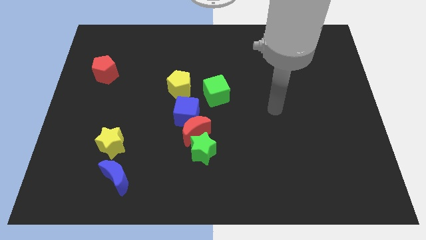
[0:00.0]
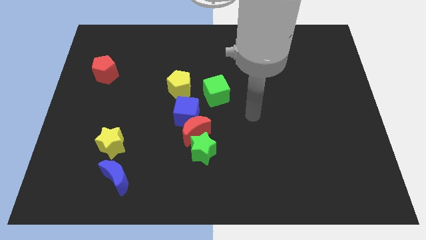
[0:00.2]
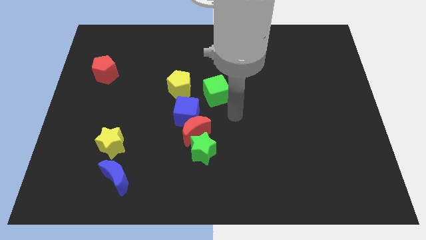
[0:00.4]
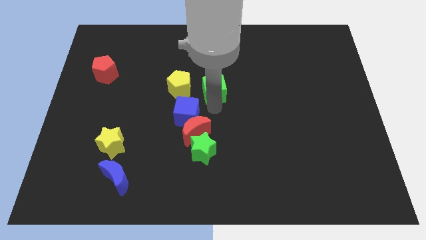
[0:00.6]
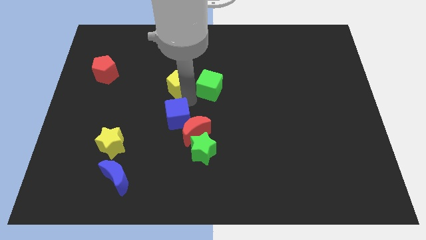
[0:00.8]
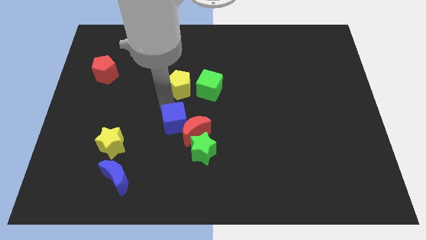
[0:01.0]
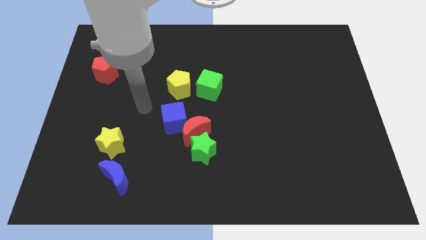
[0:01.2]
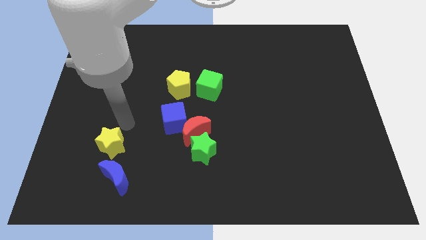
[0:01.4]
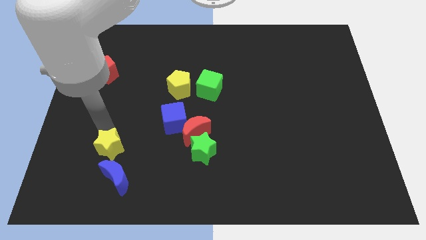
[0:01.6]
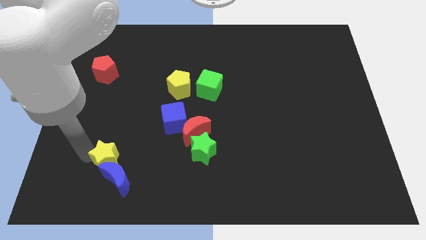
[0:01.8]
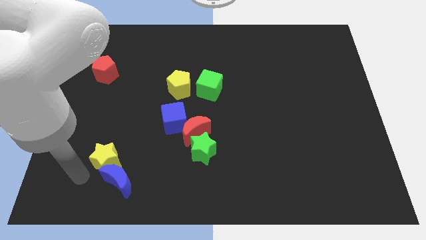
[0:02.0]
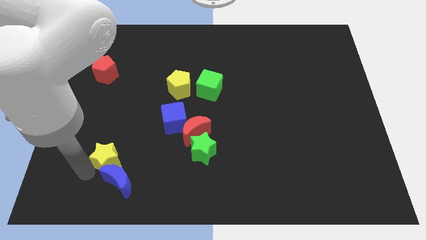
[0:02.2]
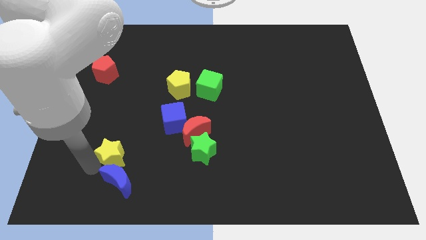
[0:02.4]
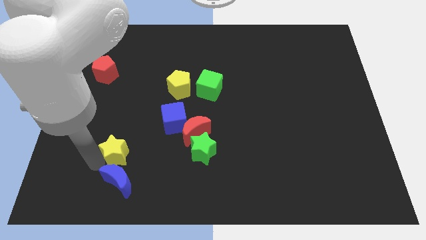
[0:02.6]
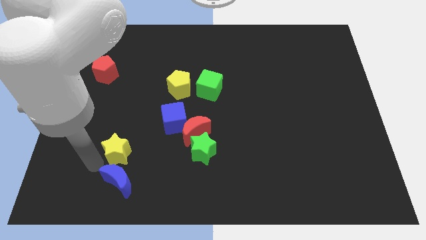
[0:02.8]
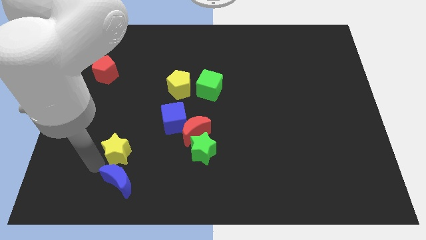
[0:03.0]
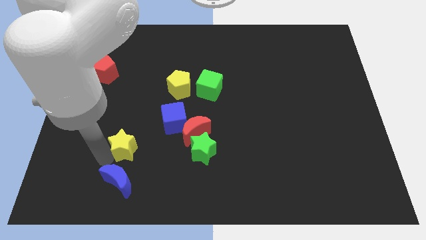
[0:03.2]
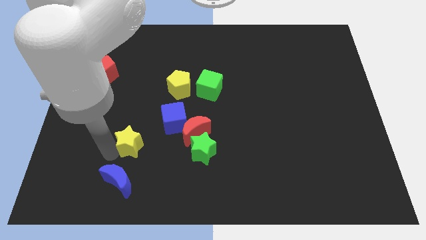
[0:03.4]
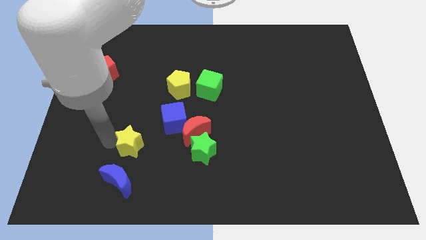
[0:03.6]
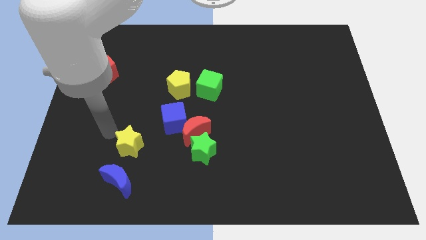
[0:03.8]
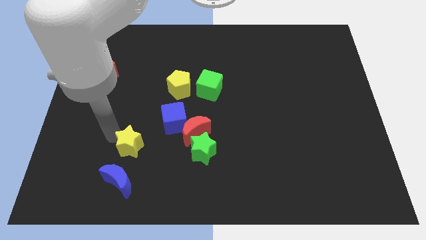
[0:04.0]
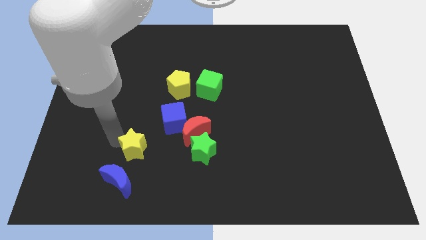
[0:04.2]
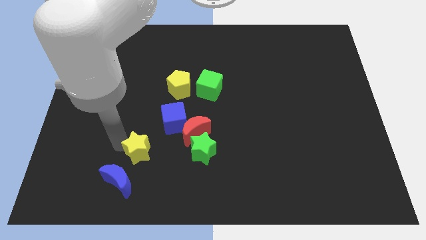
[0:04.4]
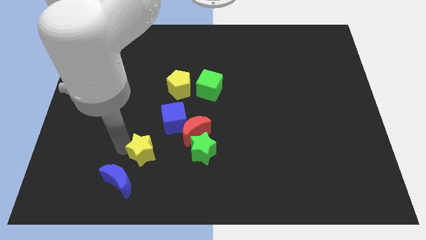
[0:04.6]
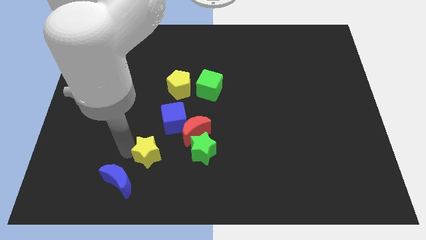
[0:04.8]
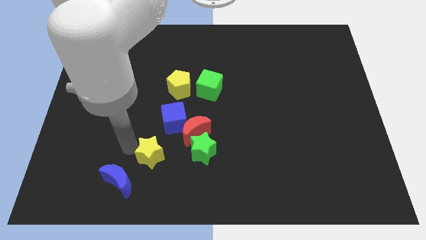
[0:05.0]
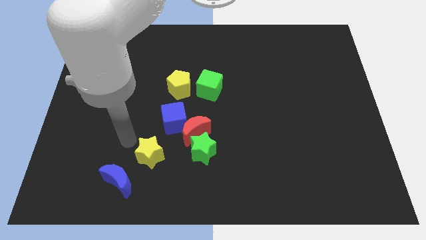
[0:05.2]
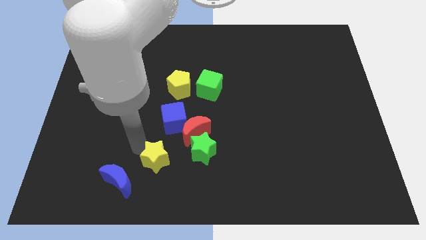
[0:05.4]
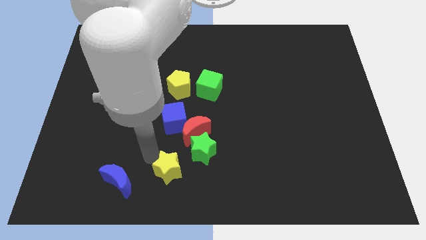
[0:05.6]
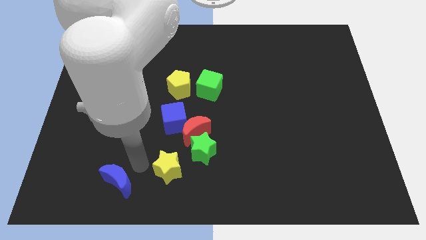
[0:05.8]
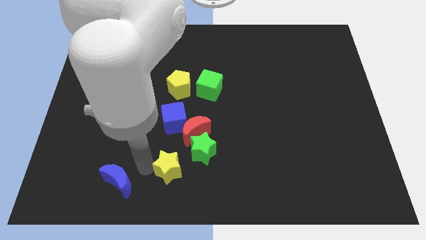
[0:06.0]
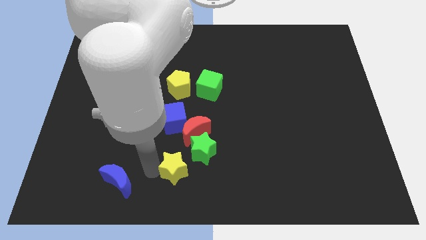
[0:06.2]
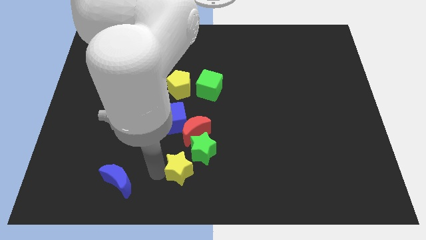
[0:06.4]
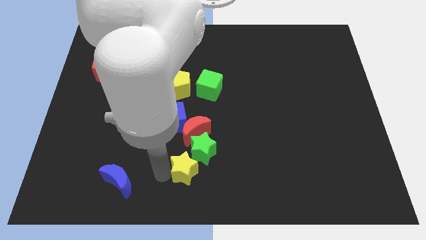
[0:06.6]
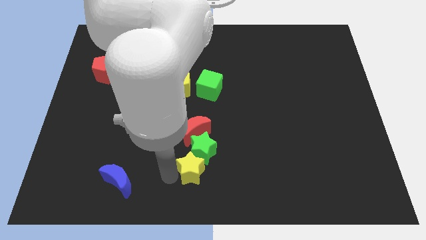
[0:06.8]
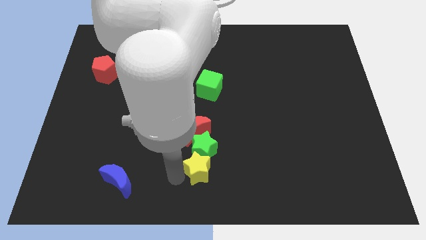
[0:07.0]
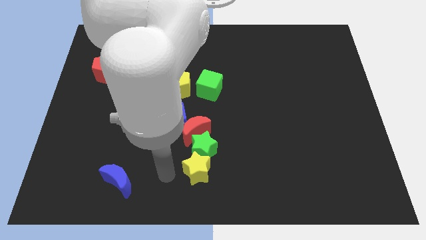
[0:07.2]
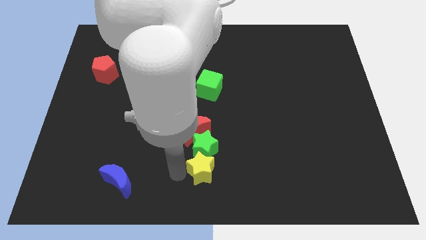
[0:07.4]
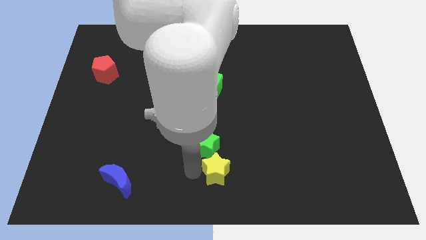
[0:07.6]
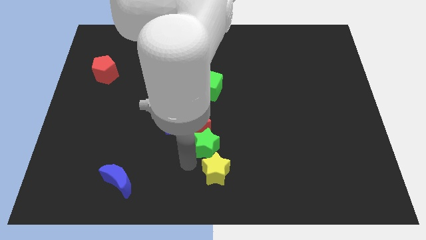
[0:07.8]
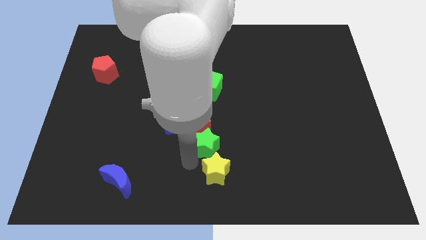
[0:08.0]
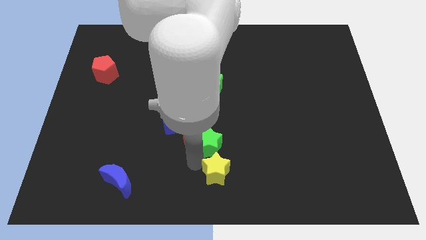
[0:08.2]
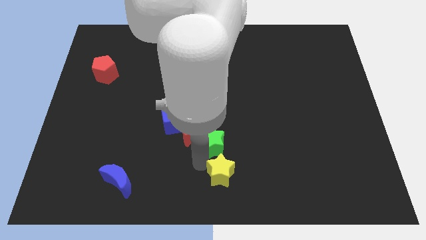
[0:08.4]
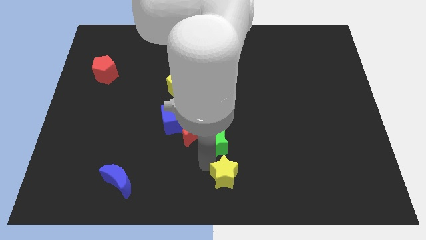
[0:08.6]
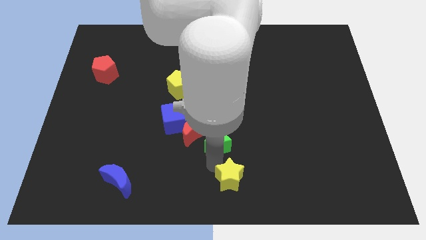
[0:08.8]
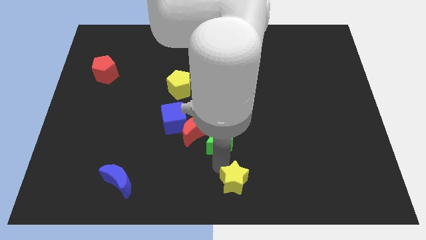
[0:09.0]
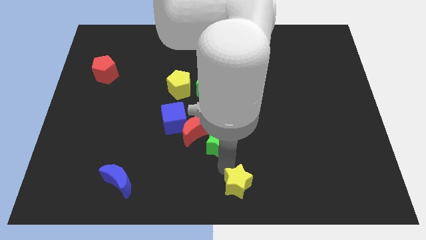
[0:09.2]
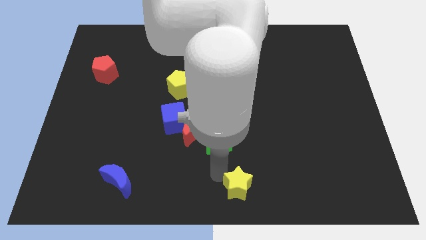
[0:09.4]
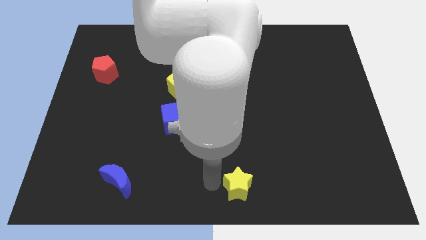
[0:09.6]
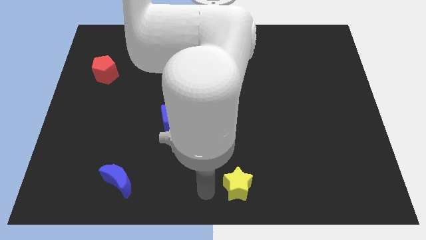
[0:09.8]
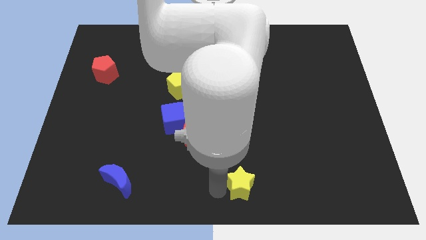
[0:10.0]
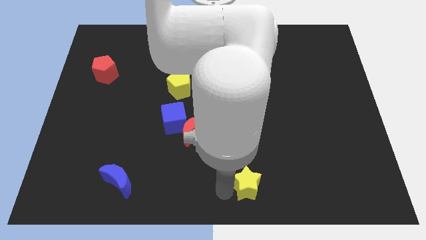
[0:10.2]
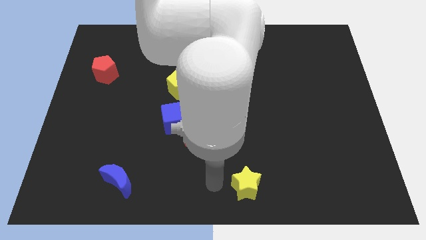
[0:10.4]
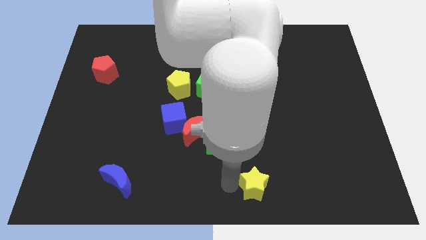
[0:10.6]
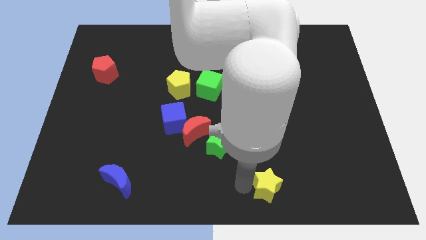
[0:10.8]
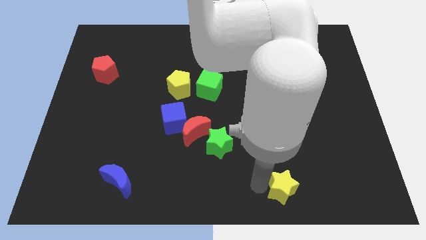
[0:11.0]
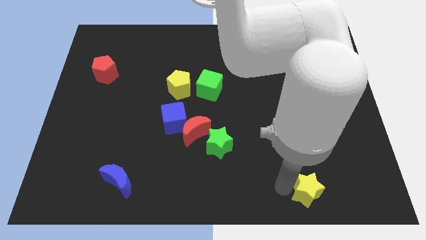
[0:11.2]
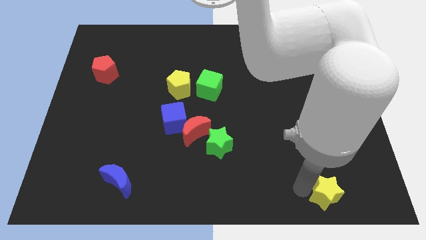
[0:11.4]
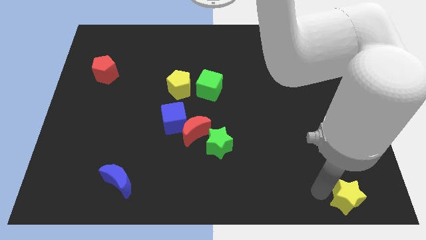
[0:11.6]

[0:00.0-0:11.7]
move the yellow star to the bottom right

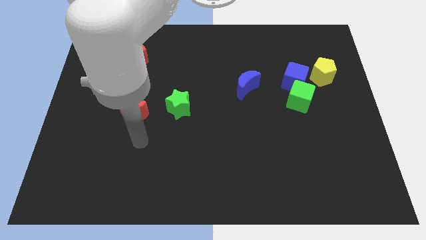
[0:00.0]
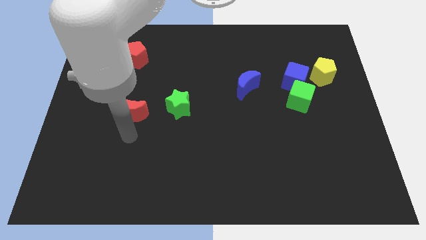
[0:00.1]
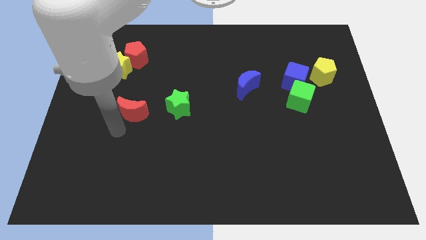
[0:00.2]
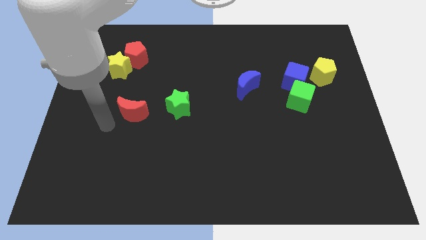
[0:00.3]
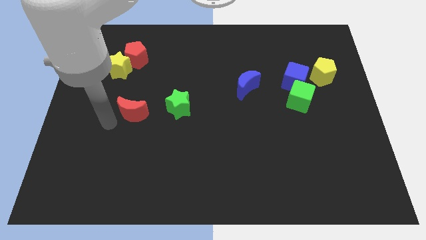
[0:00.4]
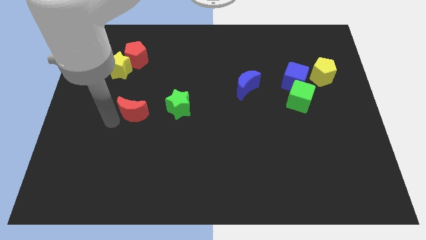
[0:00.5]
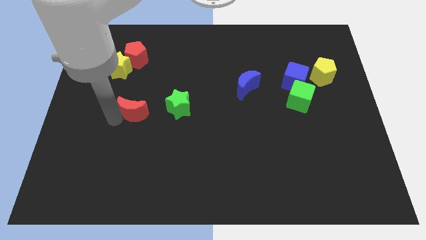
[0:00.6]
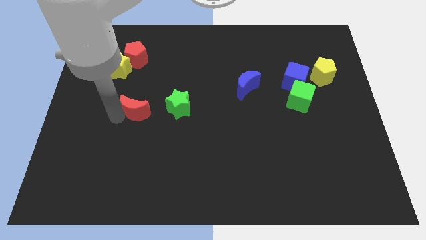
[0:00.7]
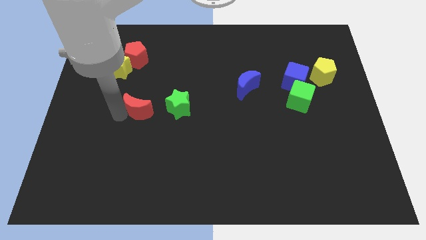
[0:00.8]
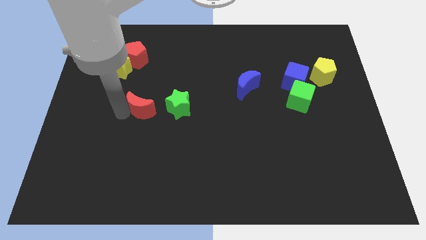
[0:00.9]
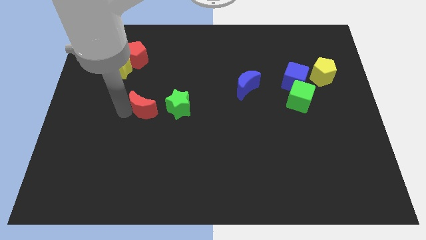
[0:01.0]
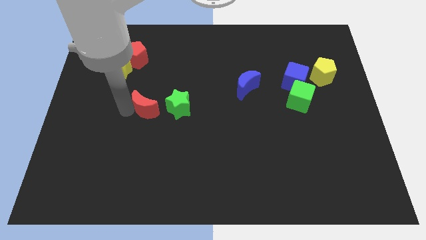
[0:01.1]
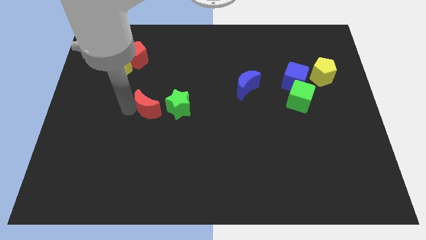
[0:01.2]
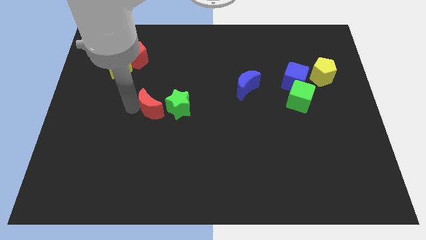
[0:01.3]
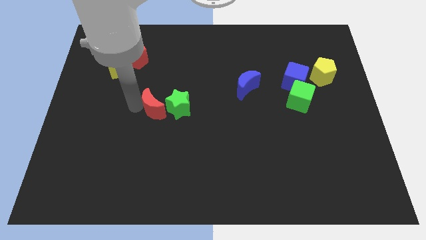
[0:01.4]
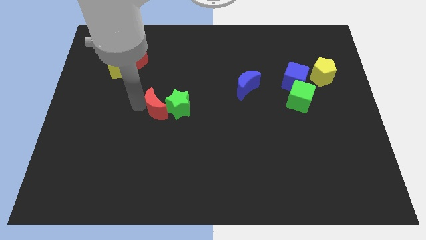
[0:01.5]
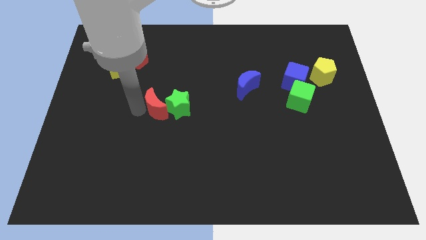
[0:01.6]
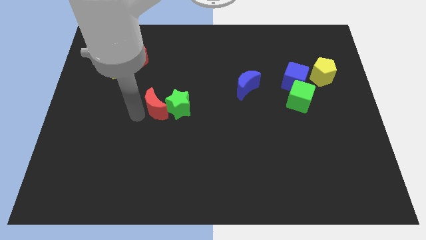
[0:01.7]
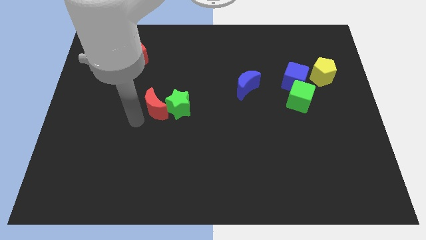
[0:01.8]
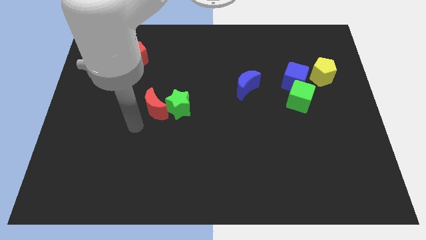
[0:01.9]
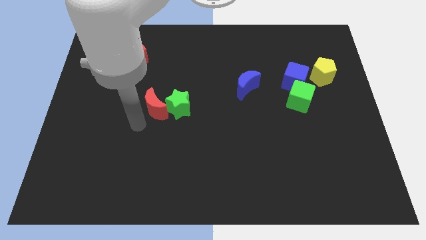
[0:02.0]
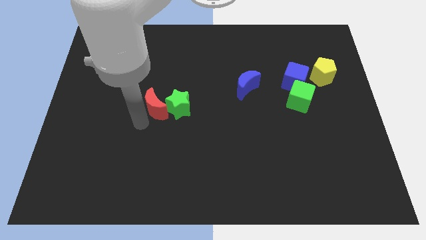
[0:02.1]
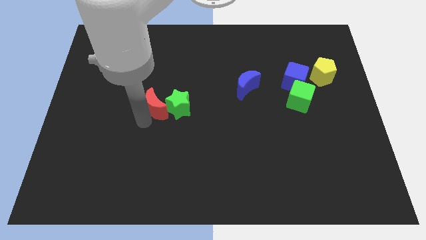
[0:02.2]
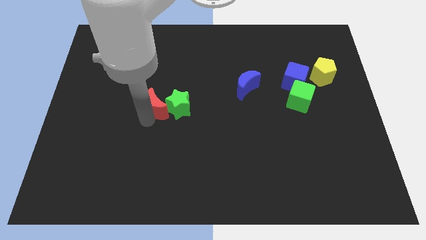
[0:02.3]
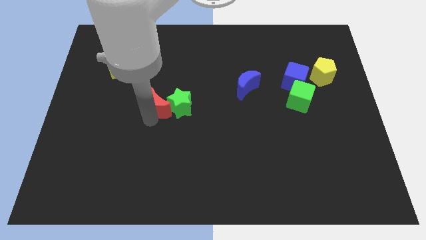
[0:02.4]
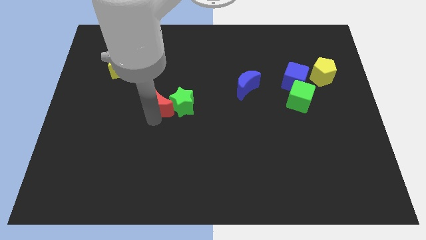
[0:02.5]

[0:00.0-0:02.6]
push the red moon to the center
